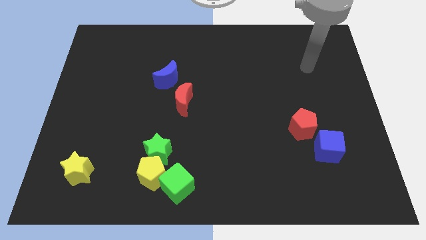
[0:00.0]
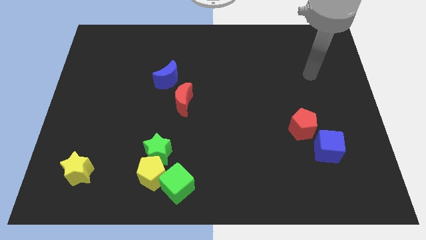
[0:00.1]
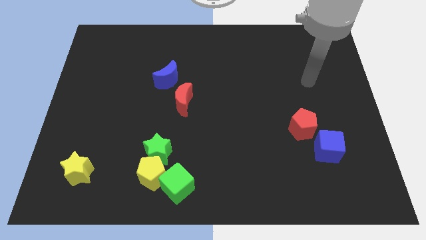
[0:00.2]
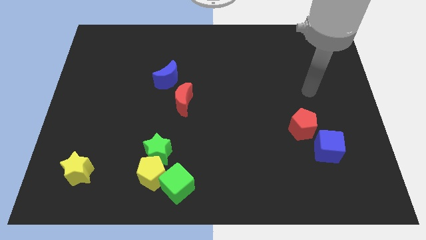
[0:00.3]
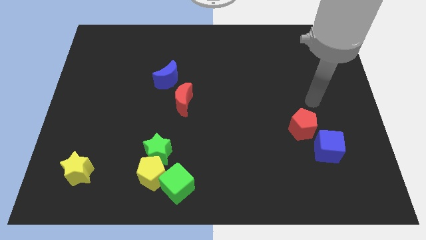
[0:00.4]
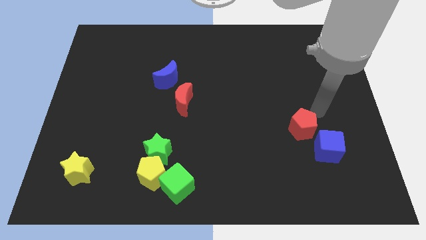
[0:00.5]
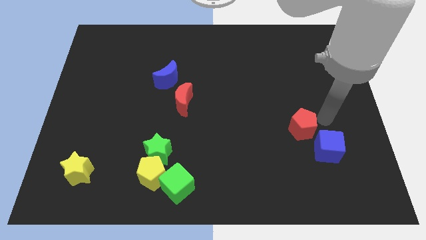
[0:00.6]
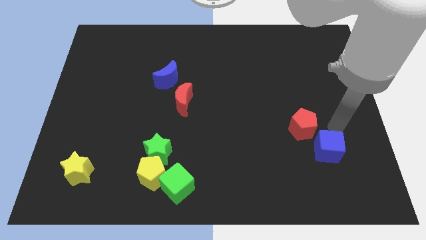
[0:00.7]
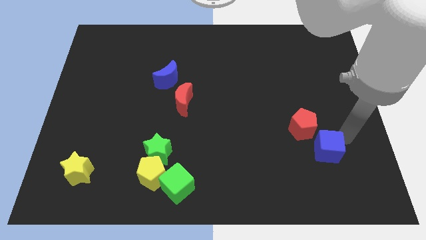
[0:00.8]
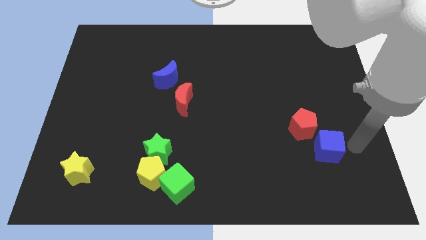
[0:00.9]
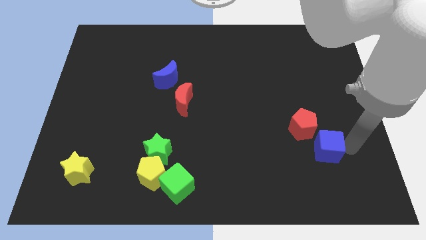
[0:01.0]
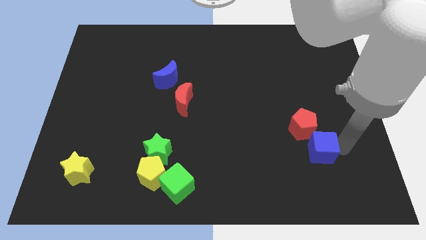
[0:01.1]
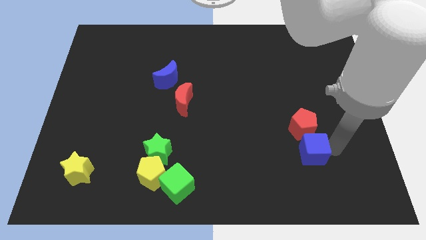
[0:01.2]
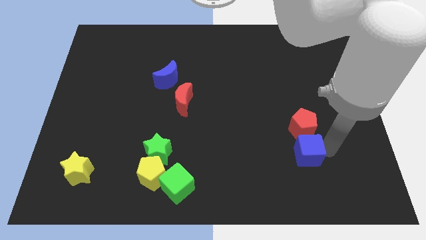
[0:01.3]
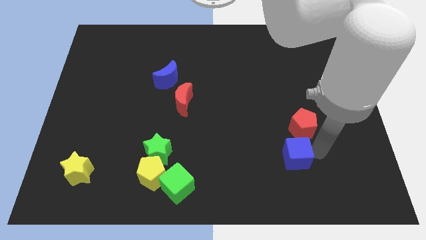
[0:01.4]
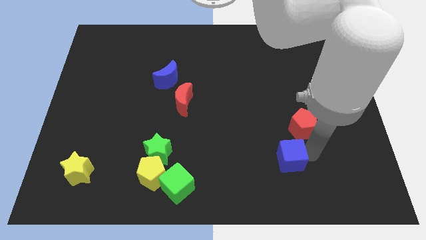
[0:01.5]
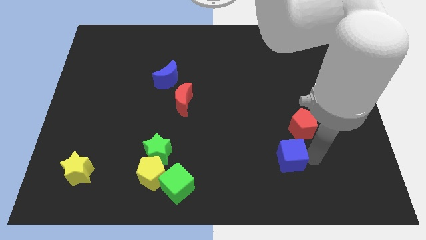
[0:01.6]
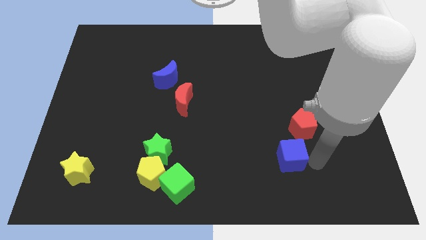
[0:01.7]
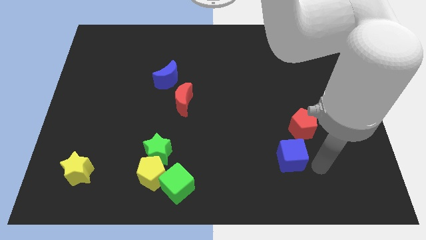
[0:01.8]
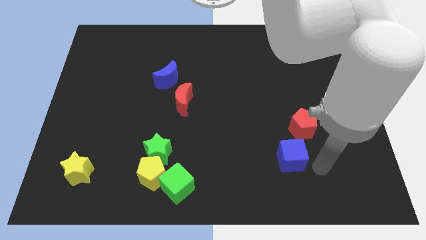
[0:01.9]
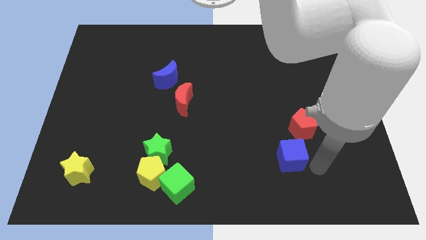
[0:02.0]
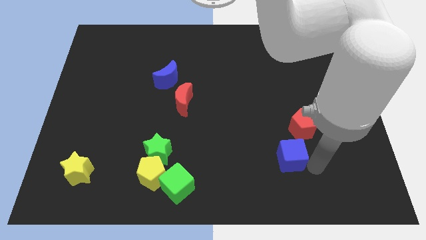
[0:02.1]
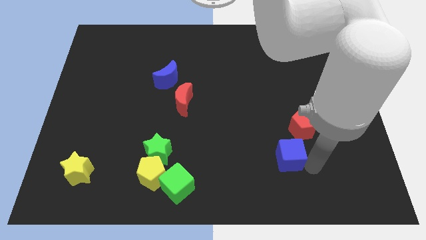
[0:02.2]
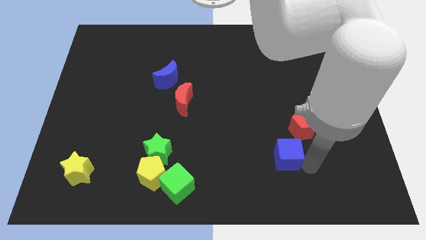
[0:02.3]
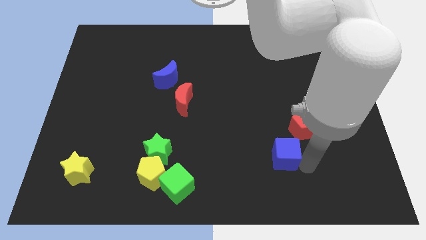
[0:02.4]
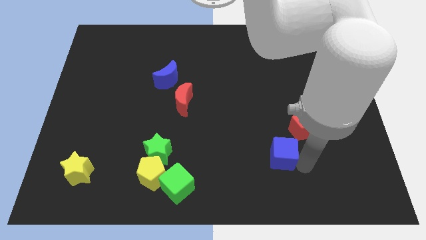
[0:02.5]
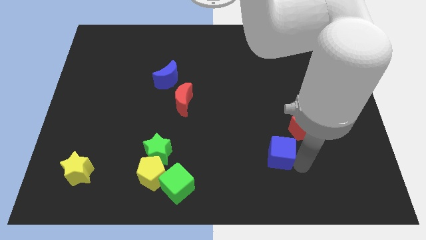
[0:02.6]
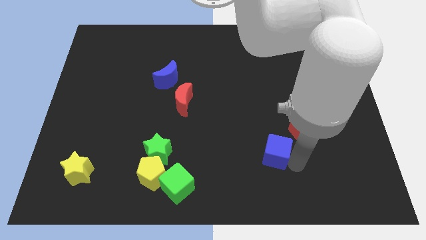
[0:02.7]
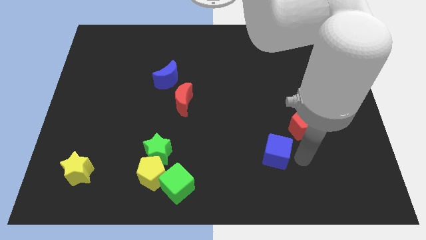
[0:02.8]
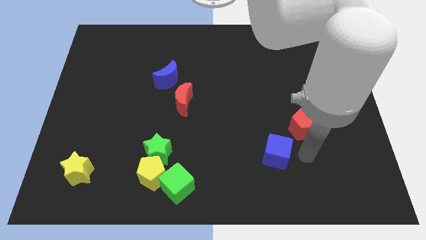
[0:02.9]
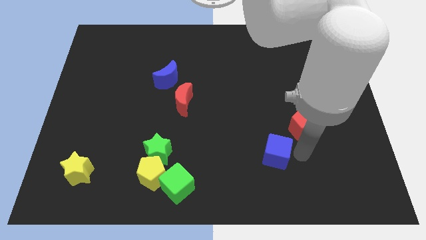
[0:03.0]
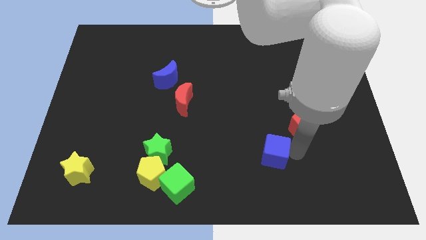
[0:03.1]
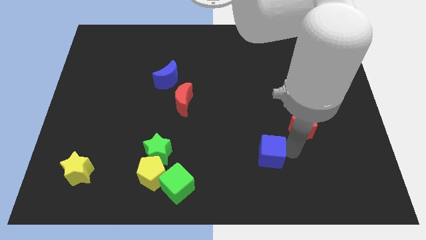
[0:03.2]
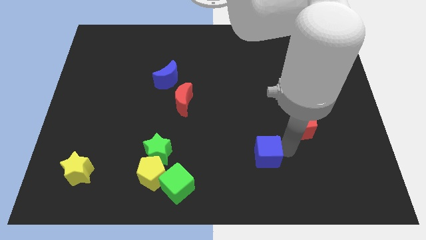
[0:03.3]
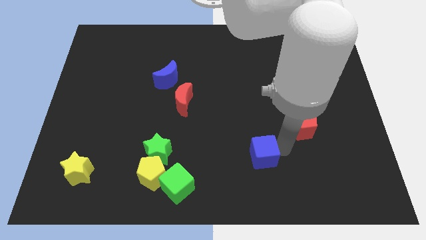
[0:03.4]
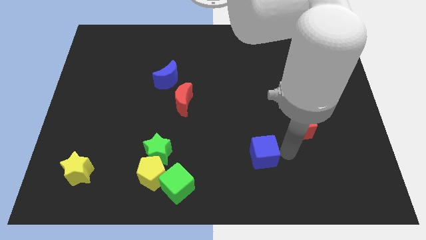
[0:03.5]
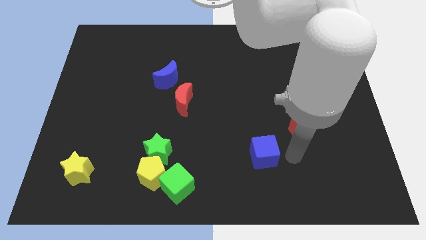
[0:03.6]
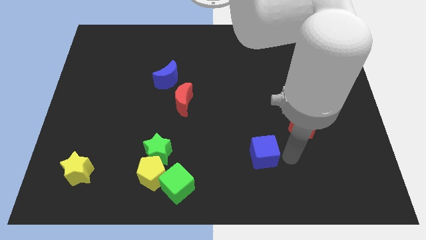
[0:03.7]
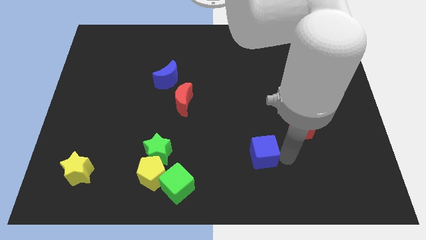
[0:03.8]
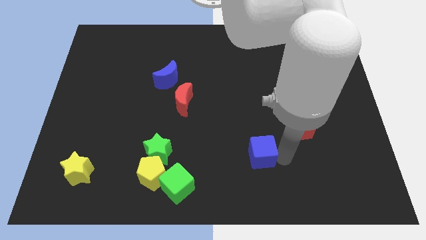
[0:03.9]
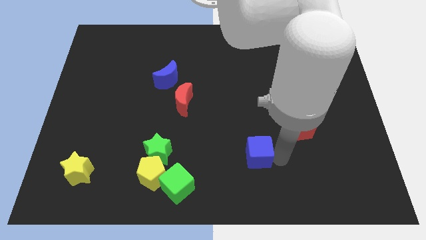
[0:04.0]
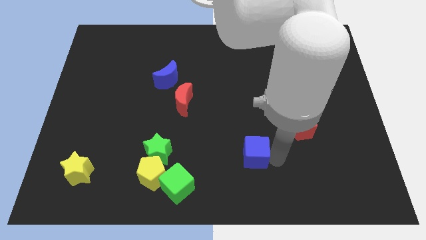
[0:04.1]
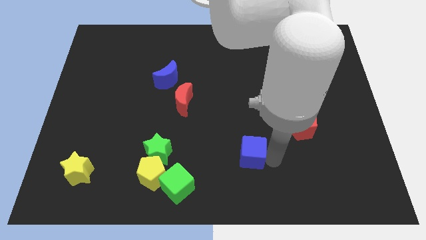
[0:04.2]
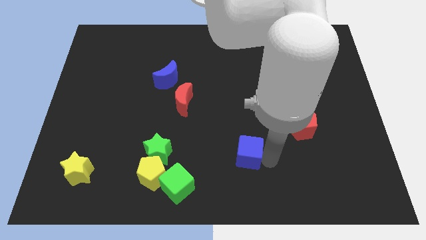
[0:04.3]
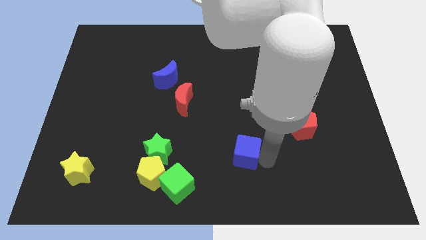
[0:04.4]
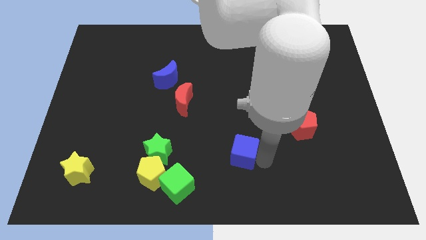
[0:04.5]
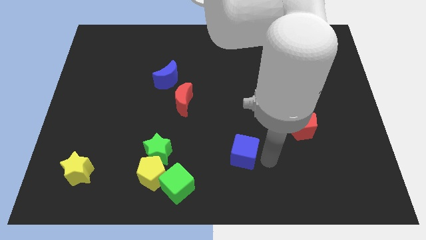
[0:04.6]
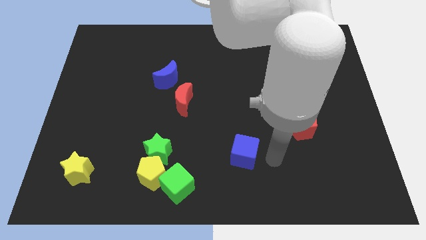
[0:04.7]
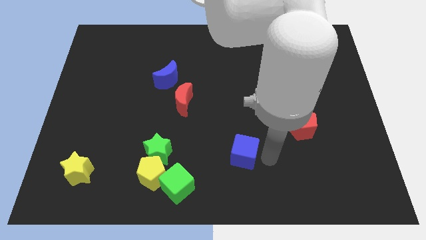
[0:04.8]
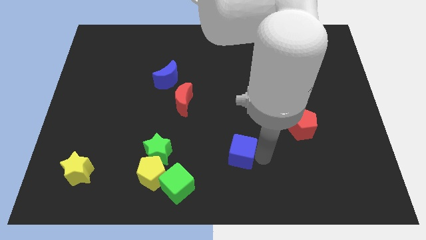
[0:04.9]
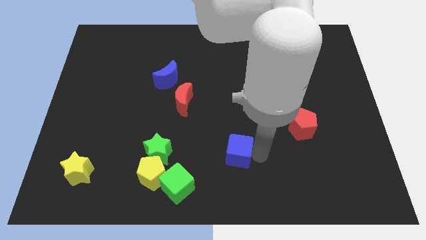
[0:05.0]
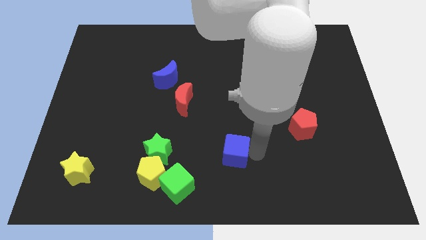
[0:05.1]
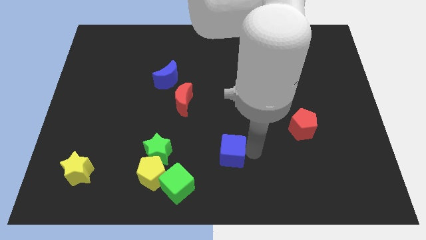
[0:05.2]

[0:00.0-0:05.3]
slide the blue cube to the right side of the green star

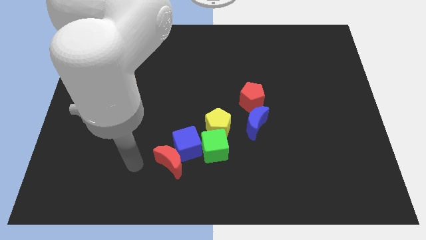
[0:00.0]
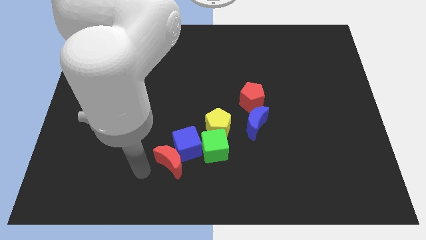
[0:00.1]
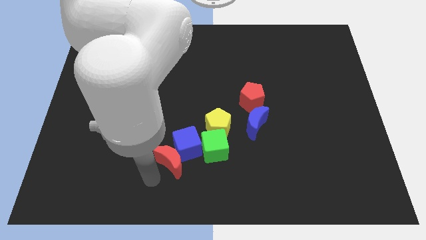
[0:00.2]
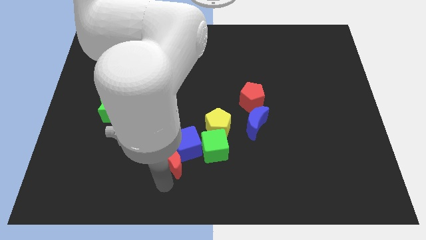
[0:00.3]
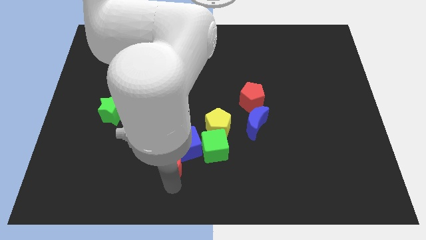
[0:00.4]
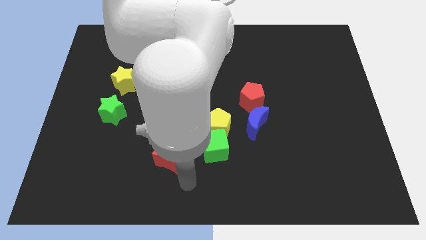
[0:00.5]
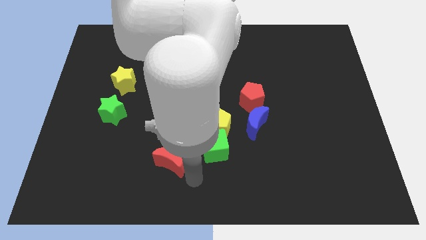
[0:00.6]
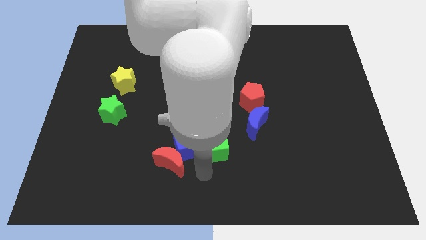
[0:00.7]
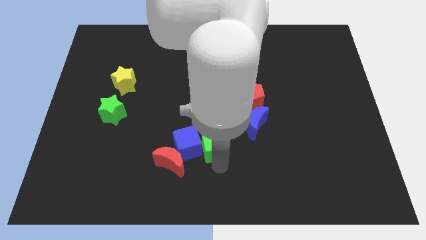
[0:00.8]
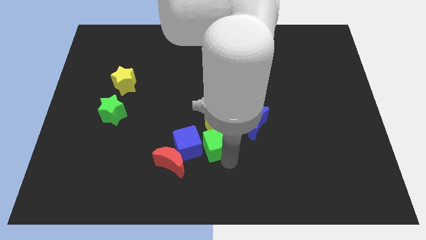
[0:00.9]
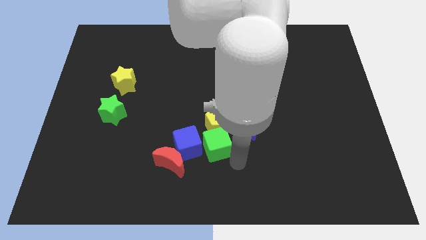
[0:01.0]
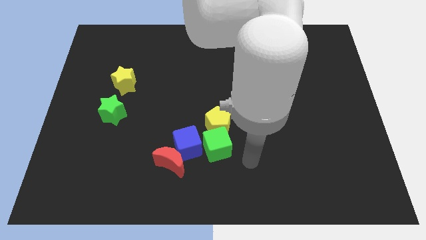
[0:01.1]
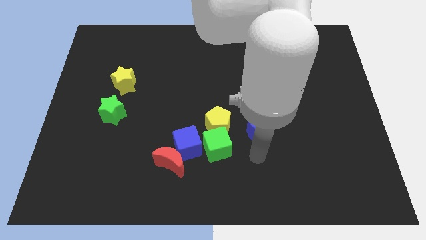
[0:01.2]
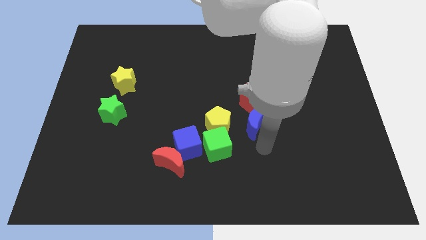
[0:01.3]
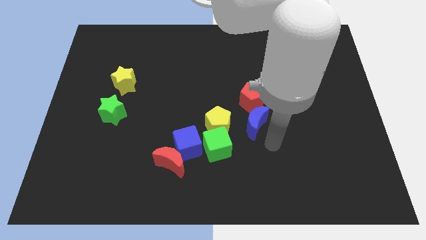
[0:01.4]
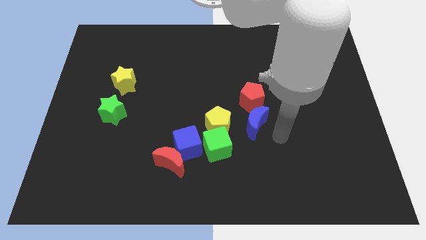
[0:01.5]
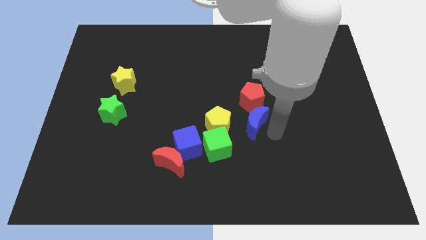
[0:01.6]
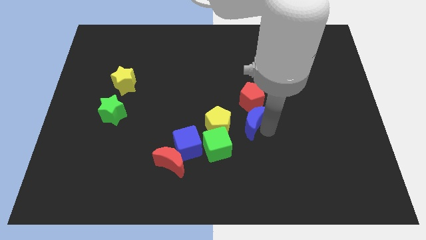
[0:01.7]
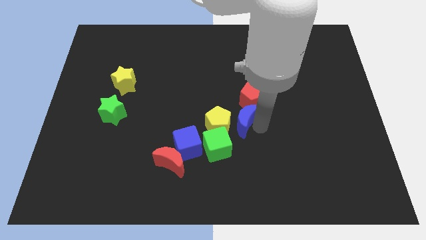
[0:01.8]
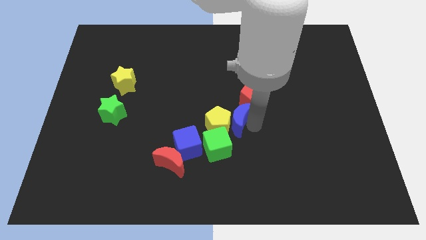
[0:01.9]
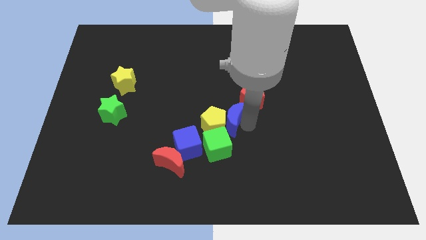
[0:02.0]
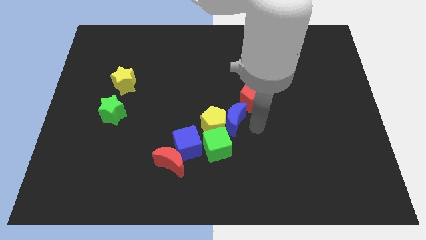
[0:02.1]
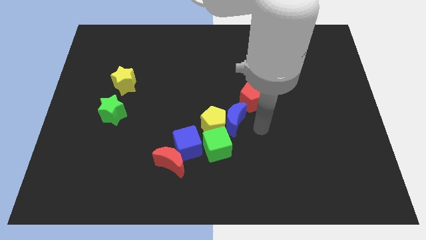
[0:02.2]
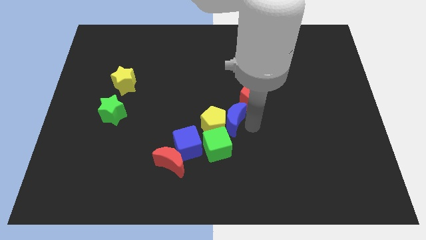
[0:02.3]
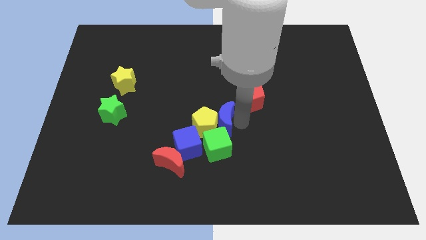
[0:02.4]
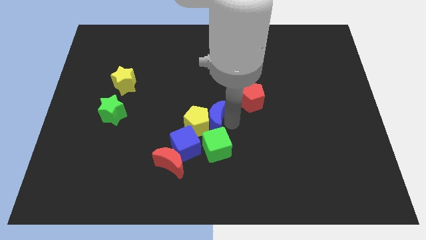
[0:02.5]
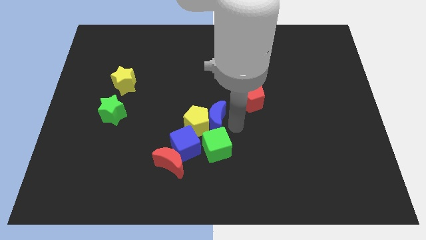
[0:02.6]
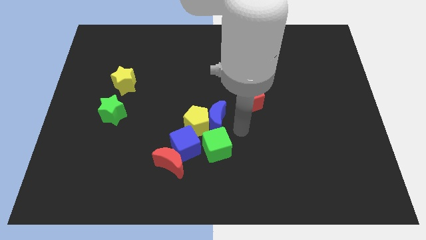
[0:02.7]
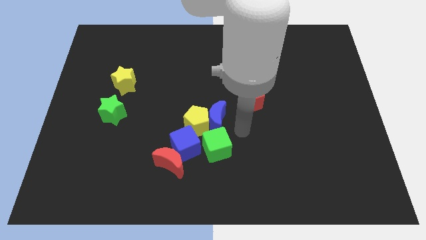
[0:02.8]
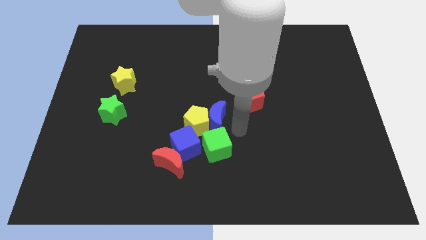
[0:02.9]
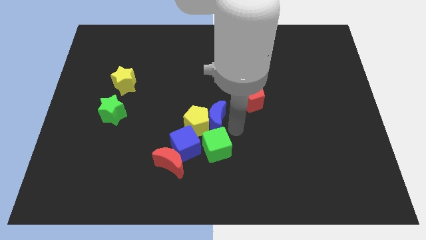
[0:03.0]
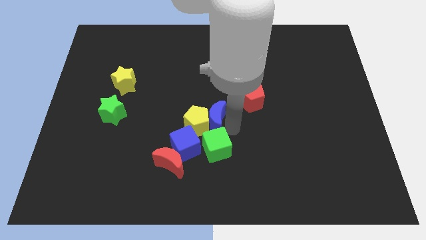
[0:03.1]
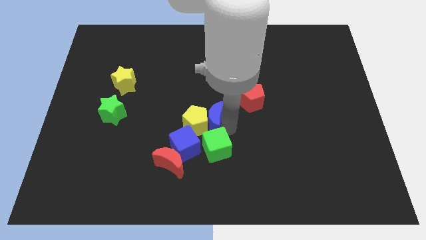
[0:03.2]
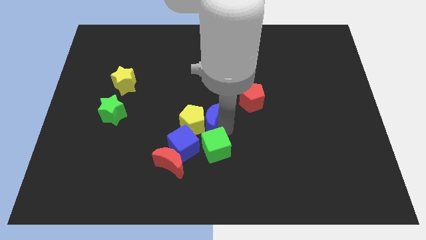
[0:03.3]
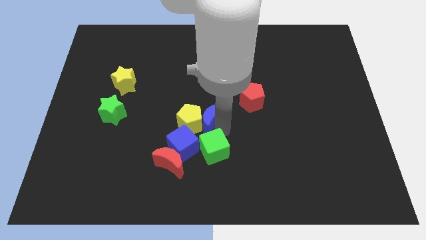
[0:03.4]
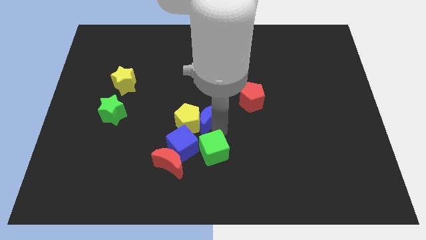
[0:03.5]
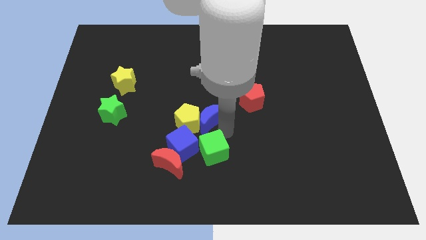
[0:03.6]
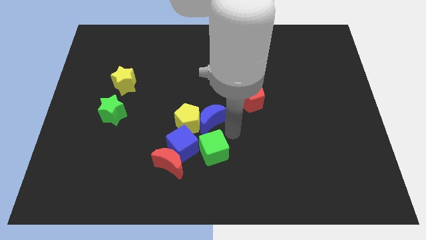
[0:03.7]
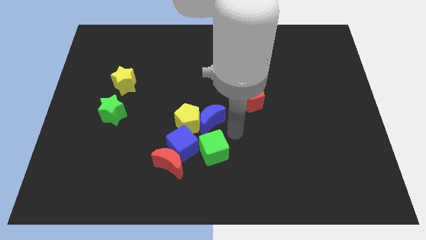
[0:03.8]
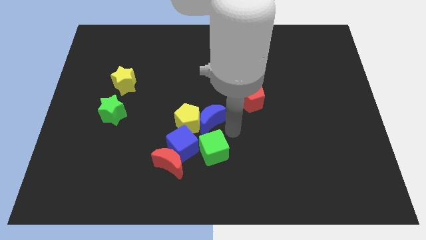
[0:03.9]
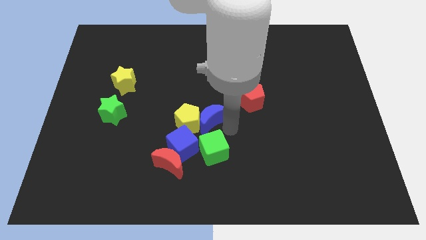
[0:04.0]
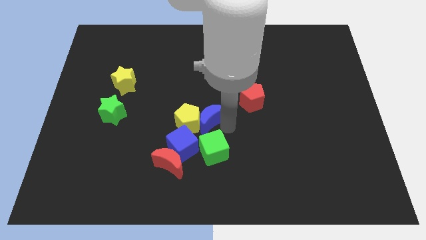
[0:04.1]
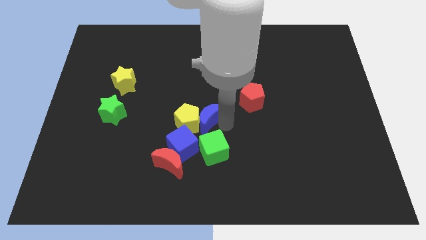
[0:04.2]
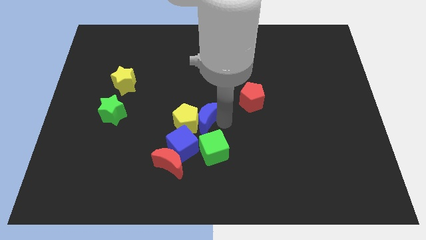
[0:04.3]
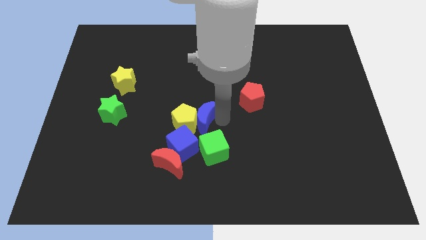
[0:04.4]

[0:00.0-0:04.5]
push the blue moon to the top side of the blue cube
